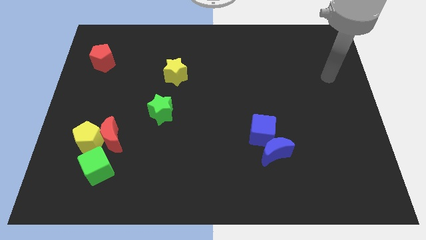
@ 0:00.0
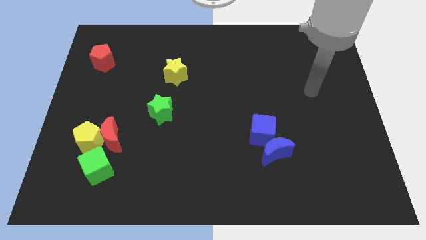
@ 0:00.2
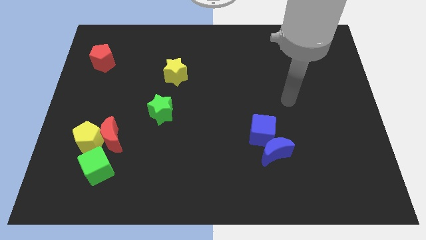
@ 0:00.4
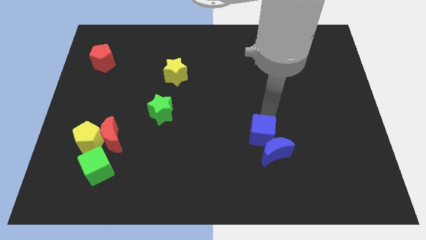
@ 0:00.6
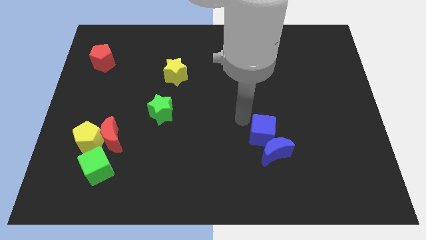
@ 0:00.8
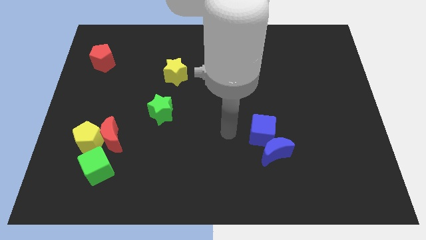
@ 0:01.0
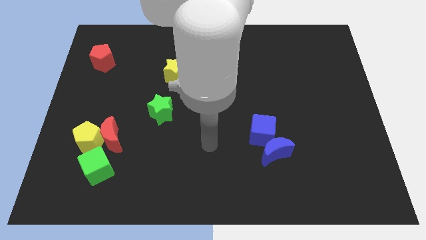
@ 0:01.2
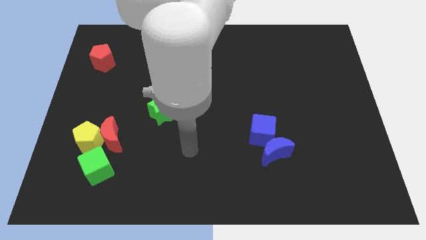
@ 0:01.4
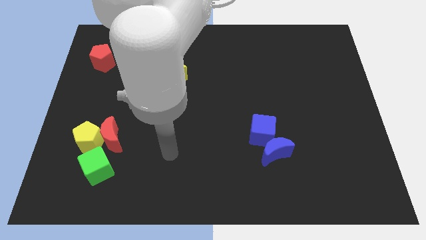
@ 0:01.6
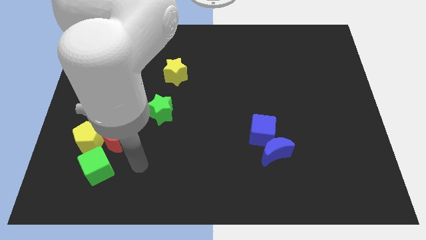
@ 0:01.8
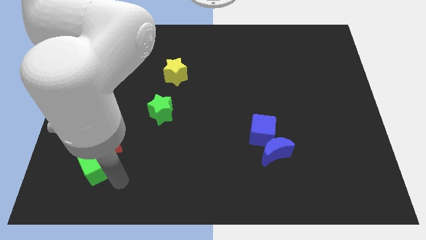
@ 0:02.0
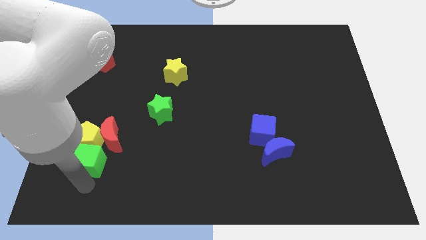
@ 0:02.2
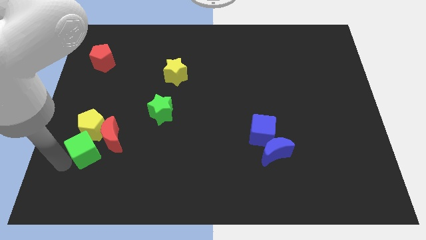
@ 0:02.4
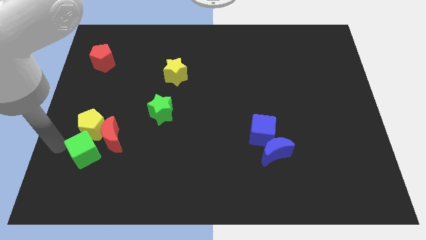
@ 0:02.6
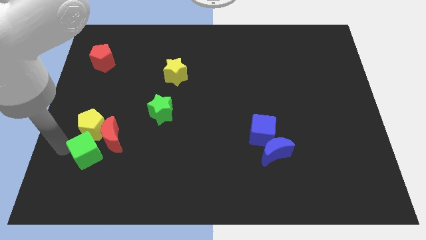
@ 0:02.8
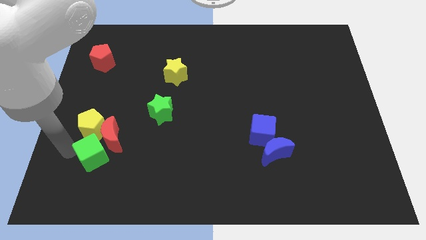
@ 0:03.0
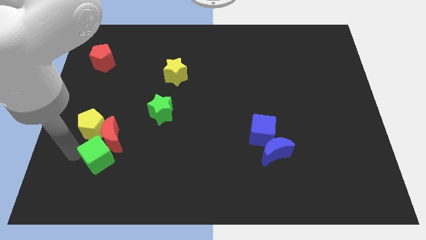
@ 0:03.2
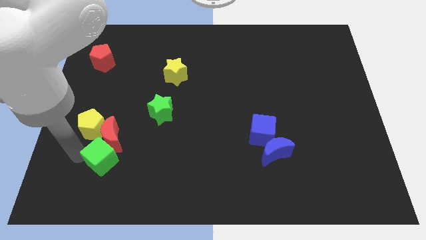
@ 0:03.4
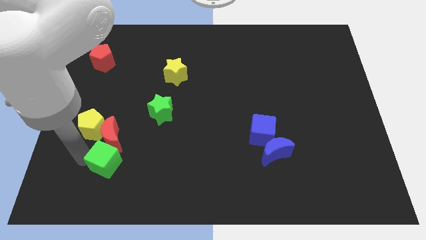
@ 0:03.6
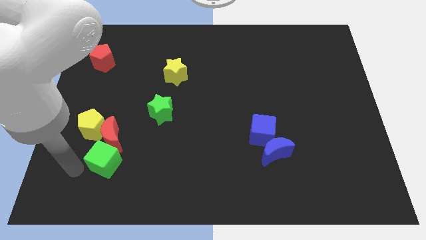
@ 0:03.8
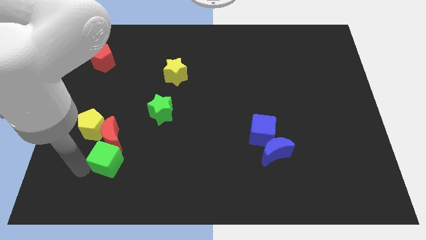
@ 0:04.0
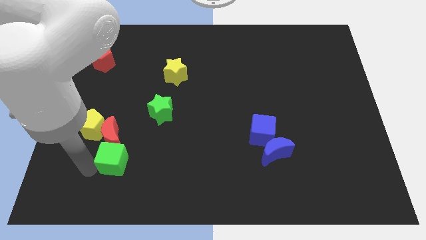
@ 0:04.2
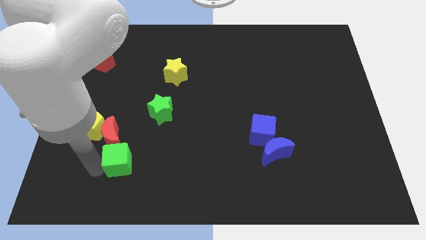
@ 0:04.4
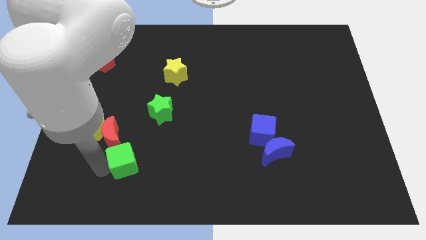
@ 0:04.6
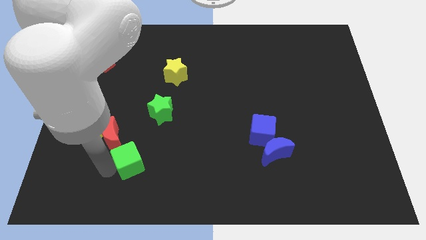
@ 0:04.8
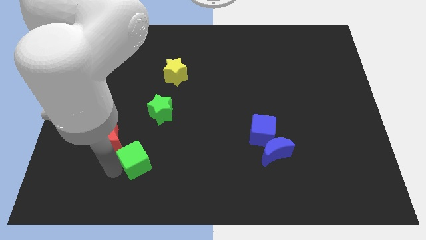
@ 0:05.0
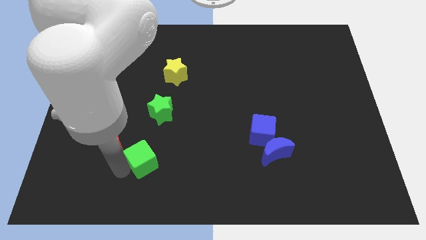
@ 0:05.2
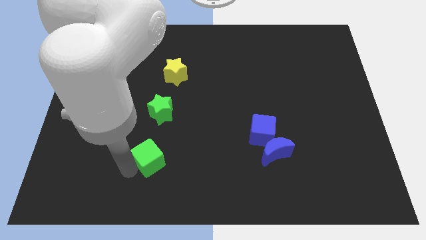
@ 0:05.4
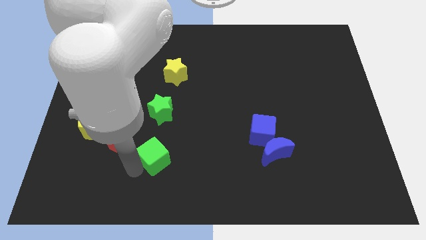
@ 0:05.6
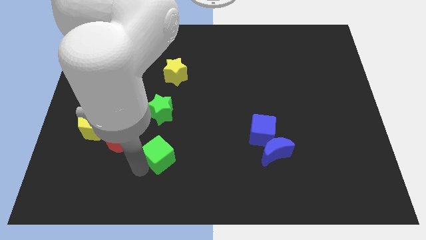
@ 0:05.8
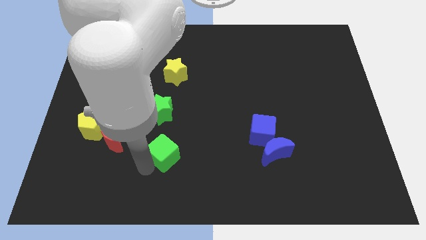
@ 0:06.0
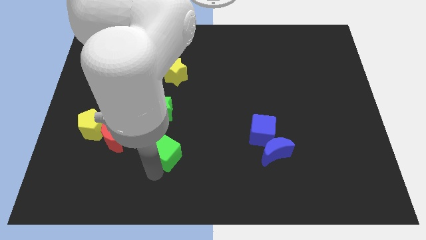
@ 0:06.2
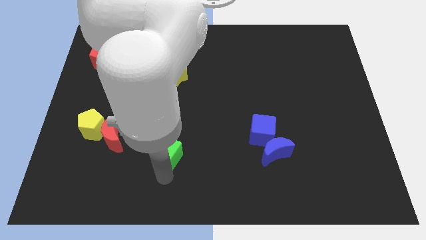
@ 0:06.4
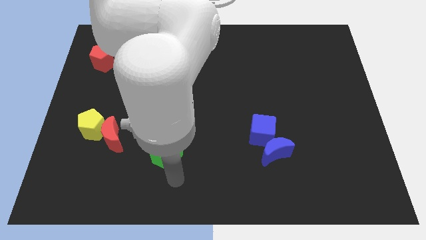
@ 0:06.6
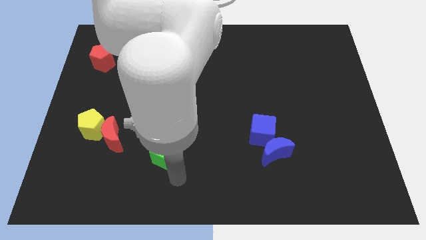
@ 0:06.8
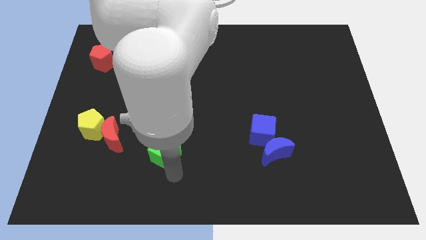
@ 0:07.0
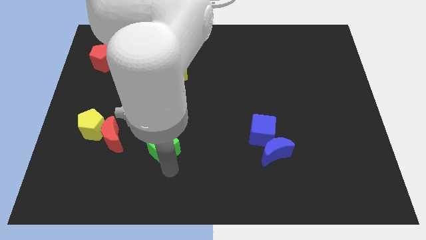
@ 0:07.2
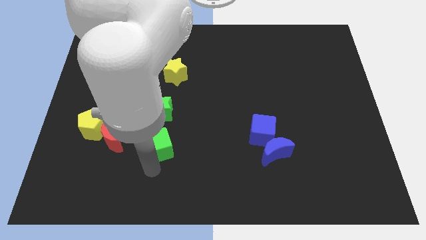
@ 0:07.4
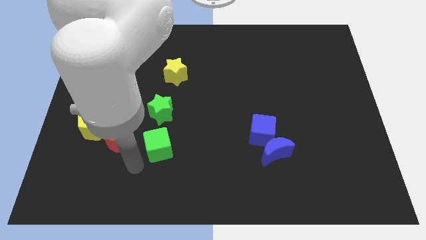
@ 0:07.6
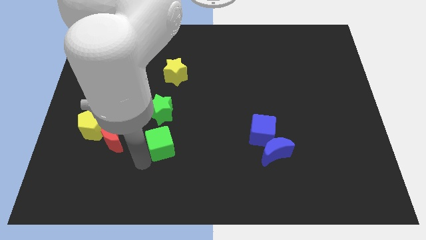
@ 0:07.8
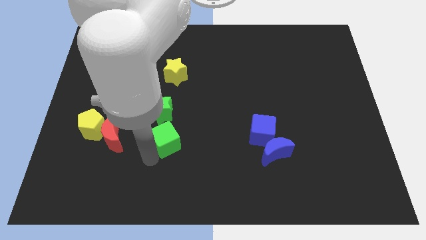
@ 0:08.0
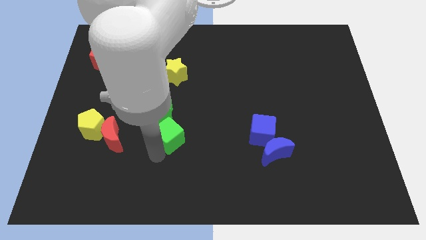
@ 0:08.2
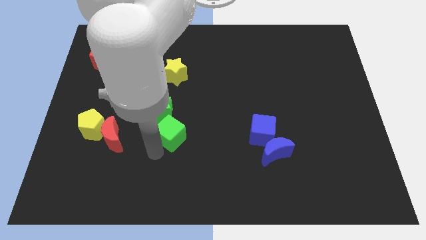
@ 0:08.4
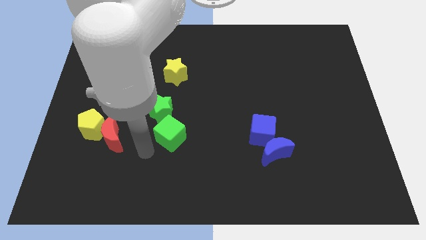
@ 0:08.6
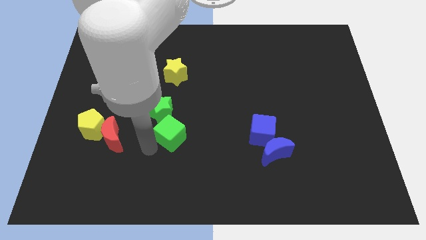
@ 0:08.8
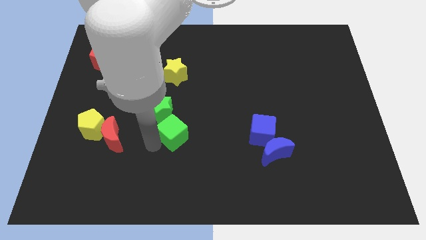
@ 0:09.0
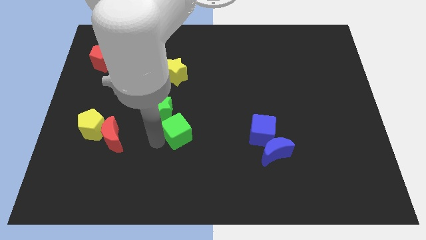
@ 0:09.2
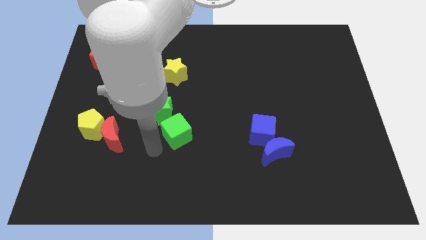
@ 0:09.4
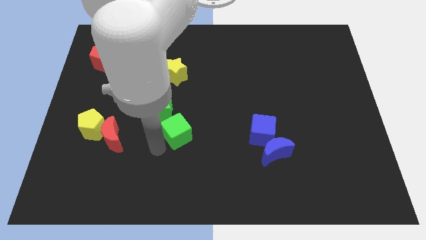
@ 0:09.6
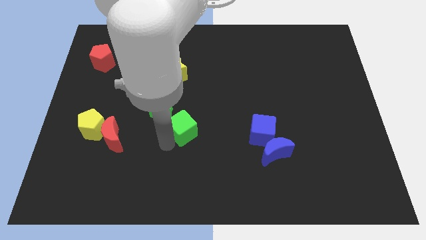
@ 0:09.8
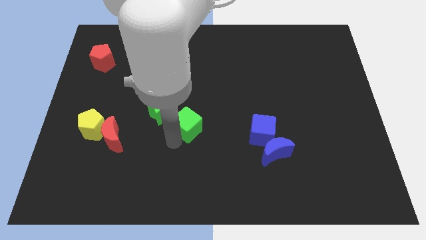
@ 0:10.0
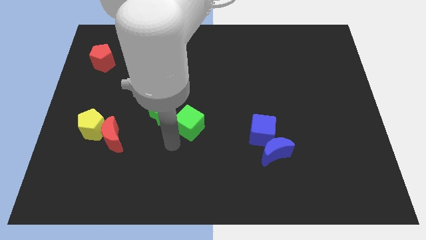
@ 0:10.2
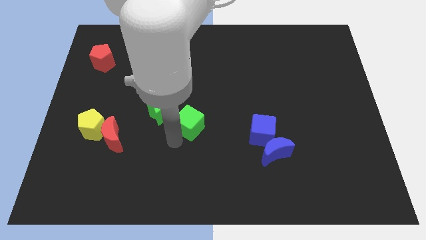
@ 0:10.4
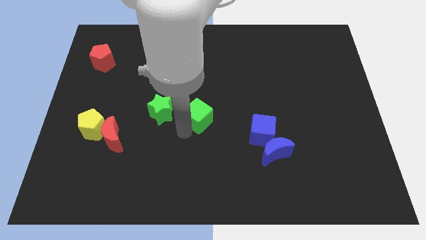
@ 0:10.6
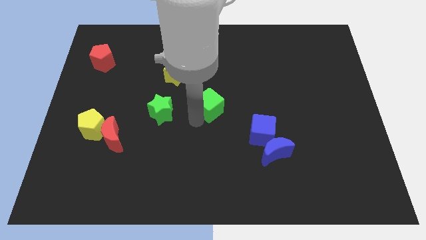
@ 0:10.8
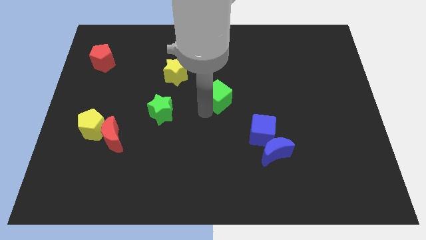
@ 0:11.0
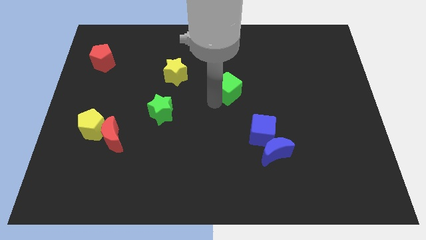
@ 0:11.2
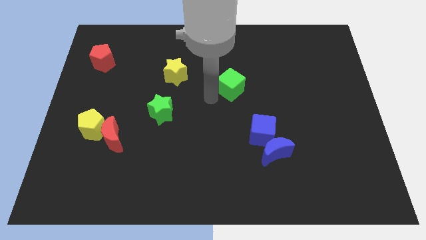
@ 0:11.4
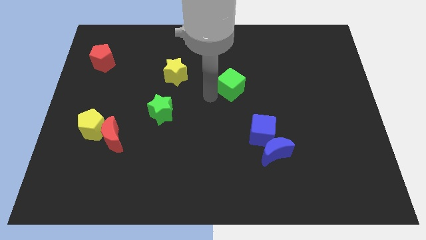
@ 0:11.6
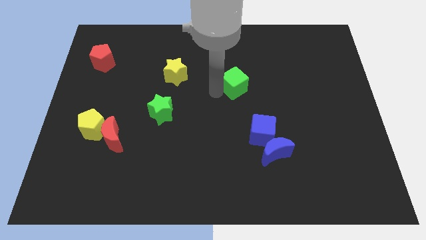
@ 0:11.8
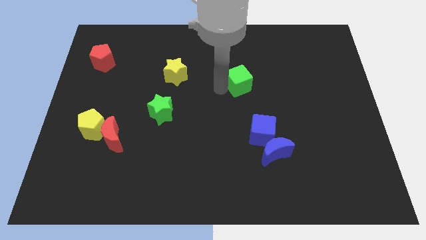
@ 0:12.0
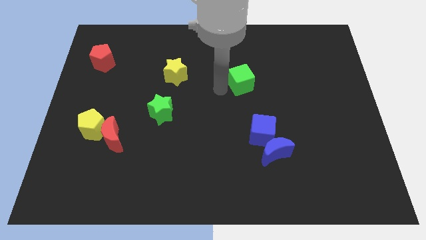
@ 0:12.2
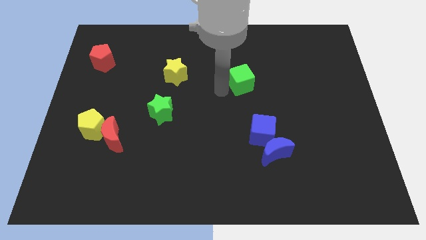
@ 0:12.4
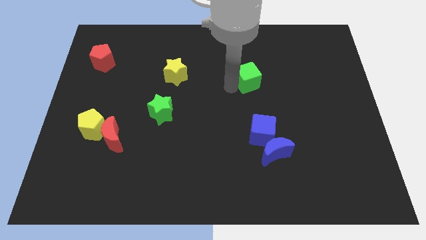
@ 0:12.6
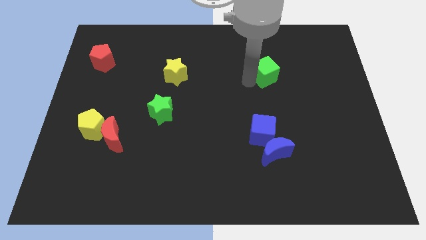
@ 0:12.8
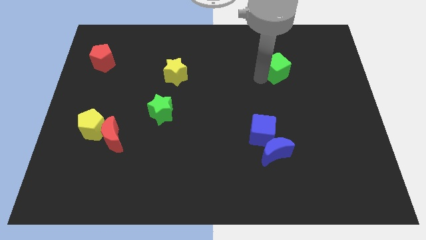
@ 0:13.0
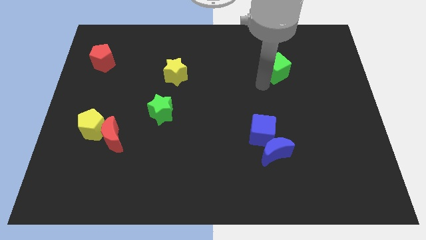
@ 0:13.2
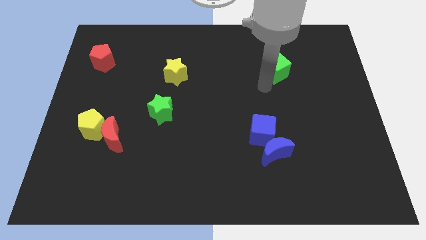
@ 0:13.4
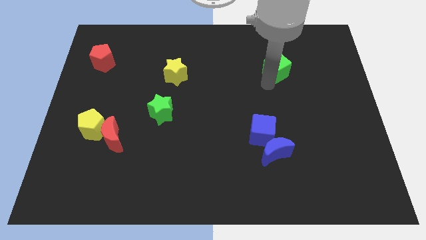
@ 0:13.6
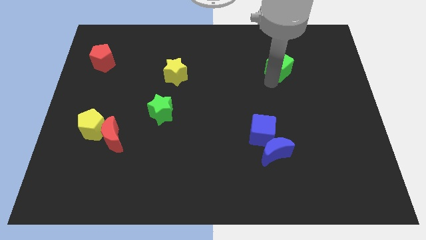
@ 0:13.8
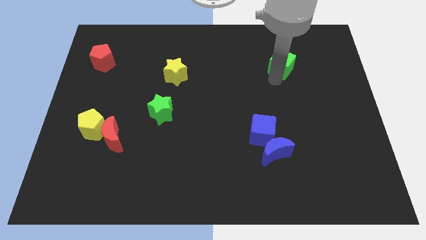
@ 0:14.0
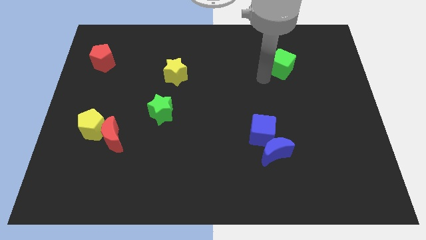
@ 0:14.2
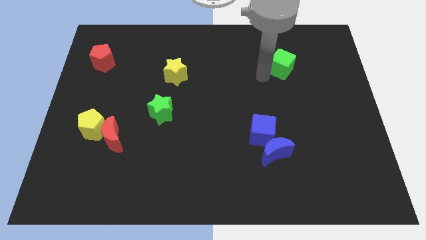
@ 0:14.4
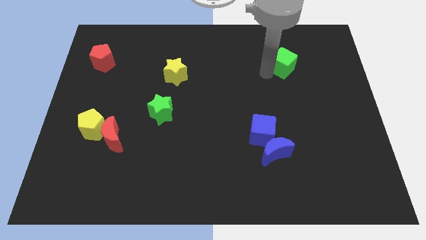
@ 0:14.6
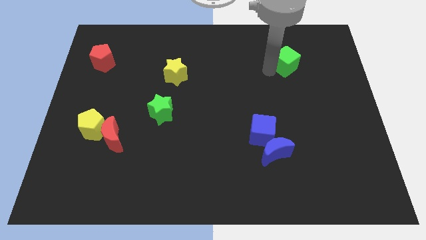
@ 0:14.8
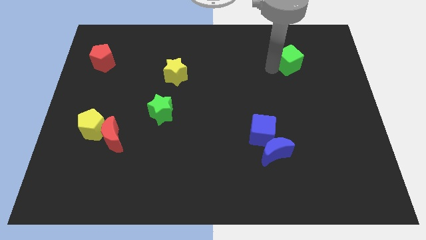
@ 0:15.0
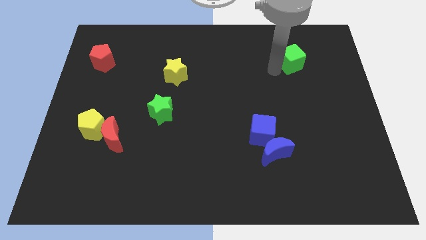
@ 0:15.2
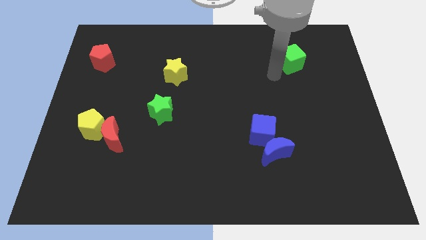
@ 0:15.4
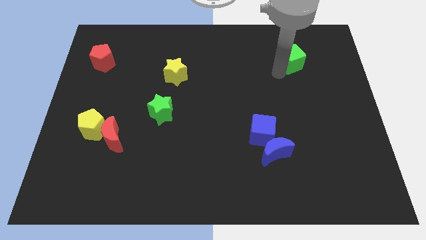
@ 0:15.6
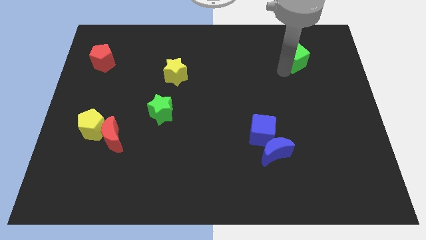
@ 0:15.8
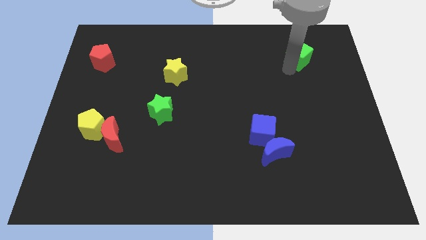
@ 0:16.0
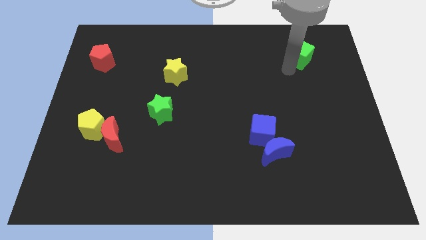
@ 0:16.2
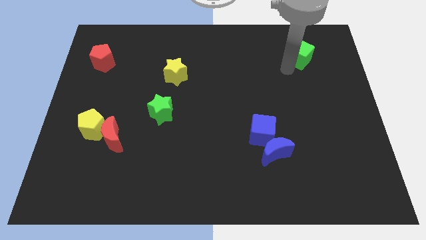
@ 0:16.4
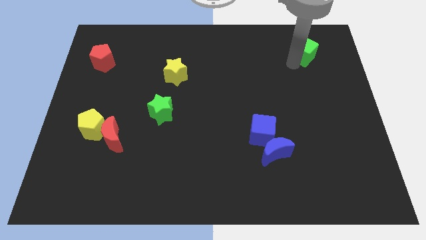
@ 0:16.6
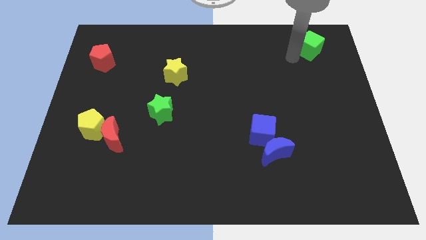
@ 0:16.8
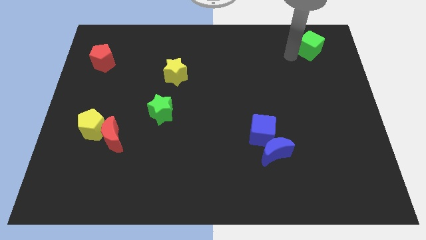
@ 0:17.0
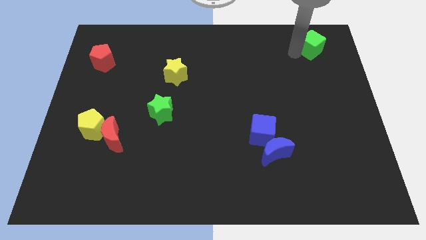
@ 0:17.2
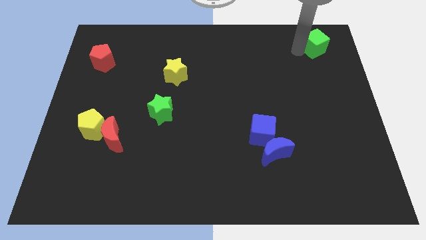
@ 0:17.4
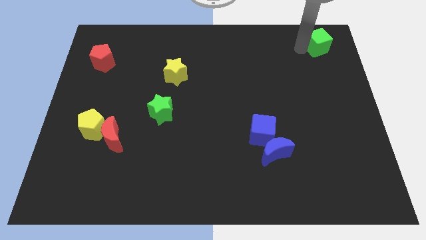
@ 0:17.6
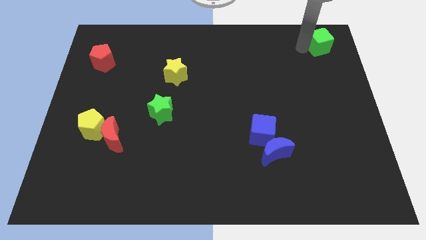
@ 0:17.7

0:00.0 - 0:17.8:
move the green cube to the upper right corner
